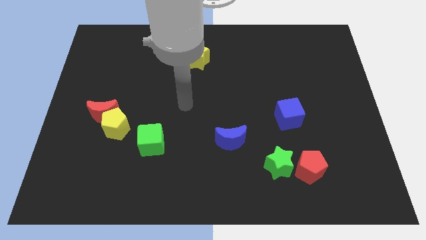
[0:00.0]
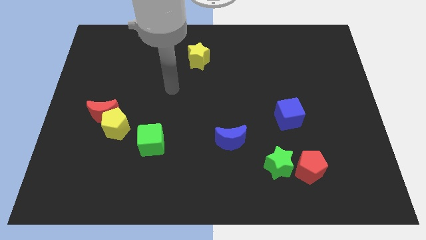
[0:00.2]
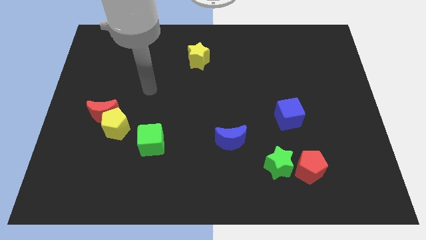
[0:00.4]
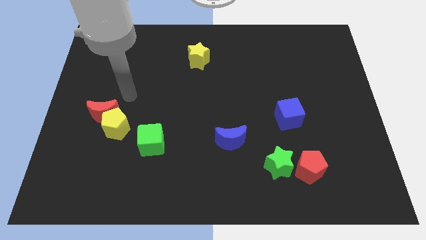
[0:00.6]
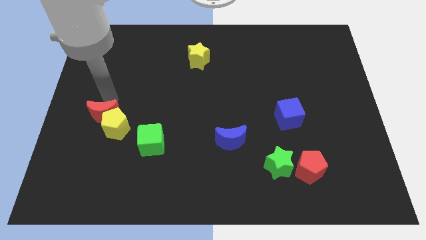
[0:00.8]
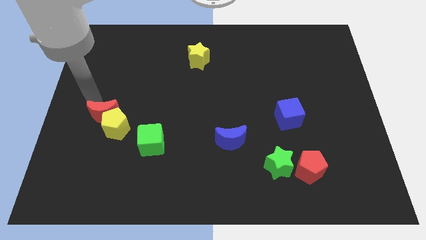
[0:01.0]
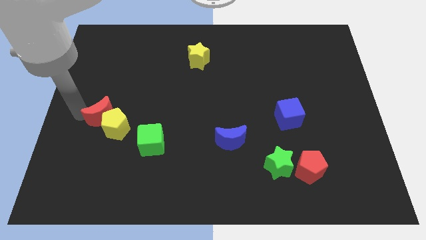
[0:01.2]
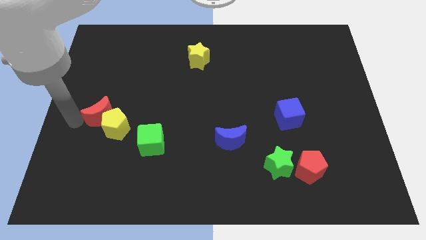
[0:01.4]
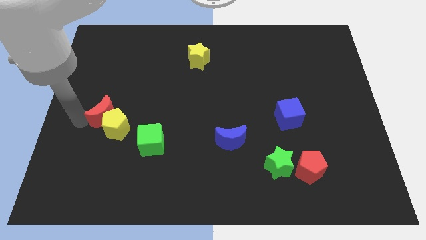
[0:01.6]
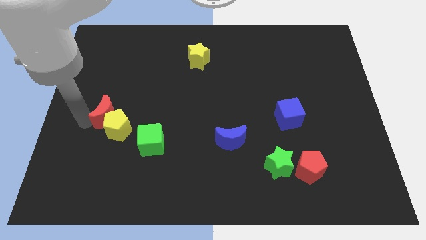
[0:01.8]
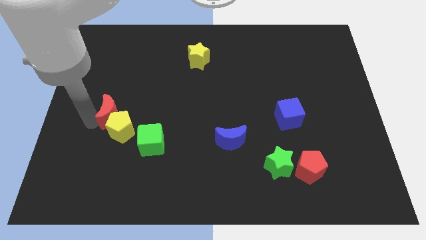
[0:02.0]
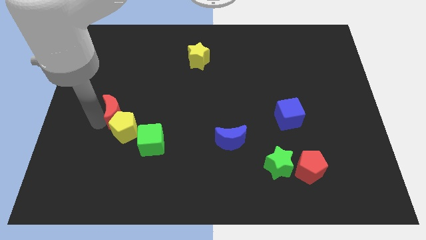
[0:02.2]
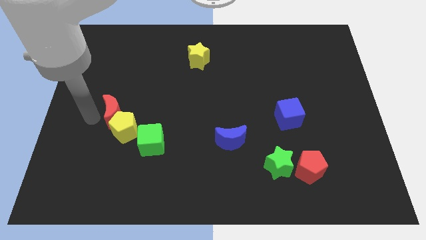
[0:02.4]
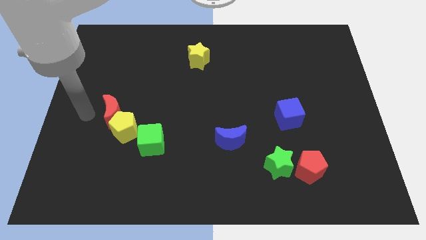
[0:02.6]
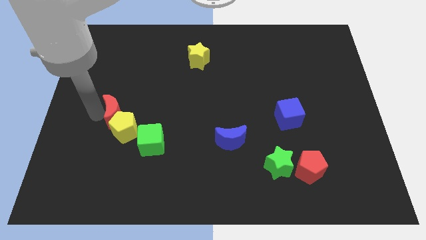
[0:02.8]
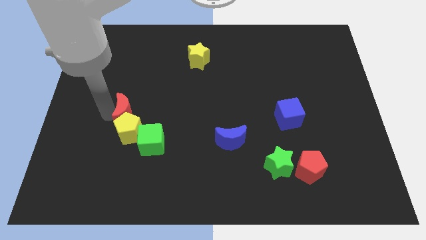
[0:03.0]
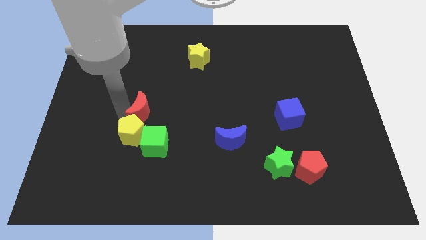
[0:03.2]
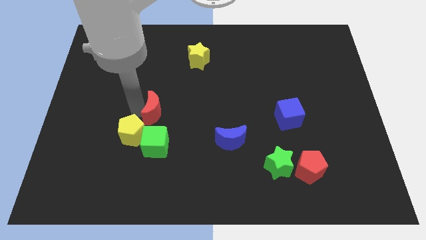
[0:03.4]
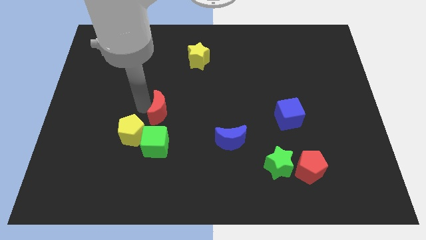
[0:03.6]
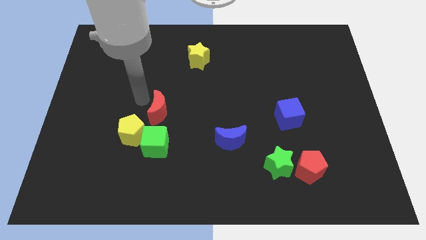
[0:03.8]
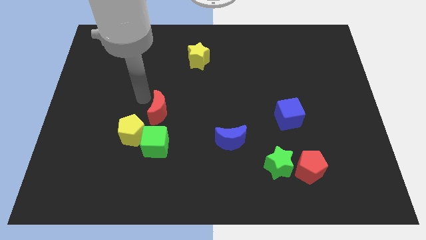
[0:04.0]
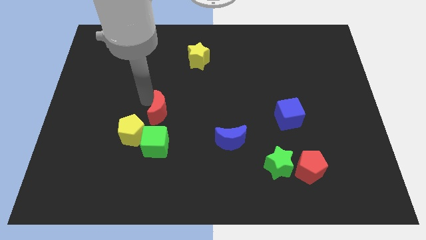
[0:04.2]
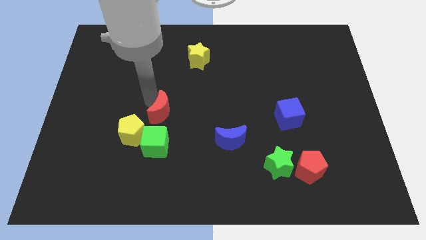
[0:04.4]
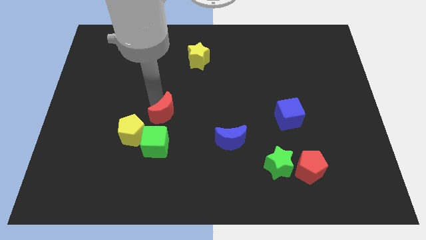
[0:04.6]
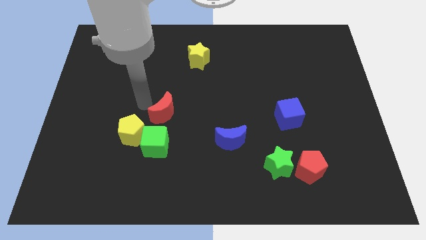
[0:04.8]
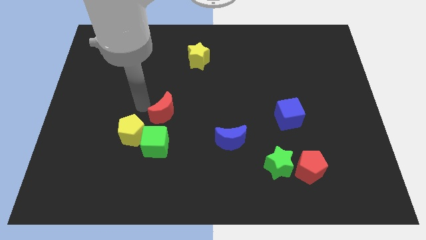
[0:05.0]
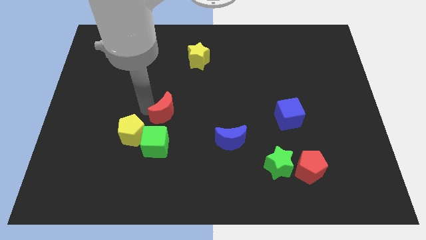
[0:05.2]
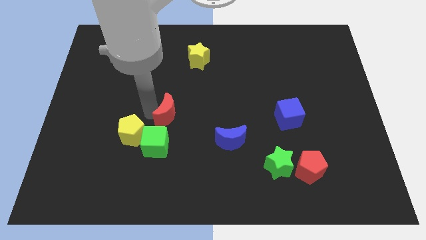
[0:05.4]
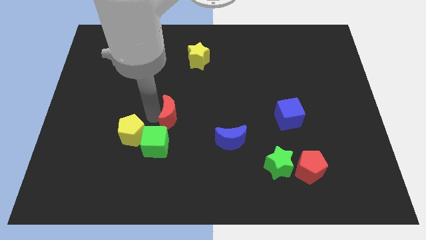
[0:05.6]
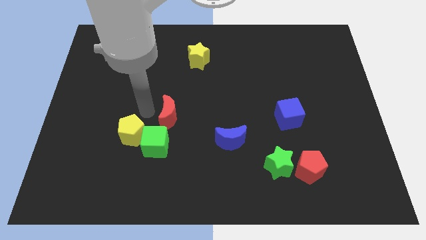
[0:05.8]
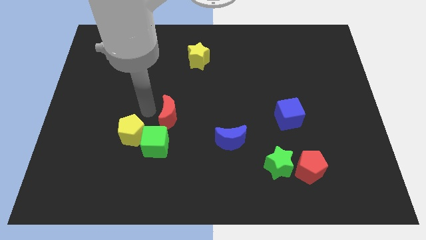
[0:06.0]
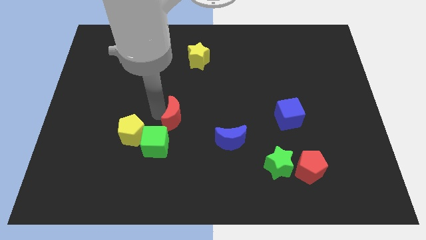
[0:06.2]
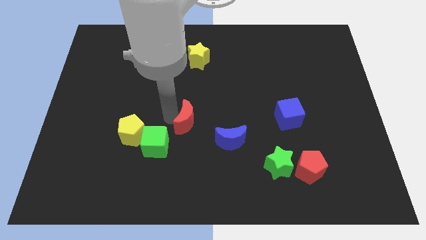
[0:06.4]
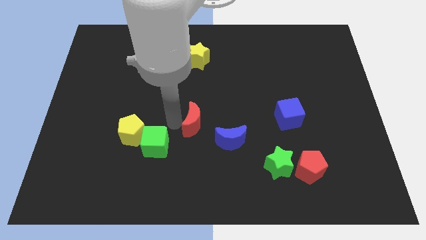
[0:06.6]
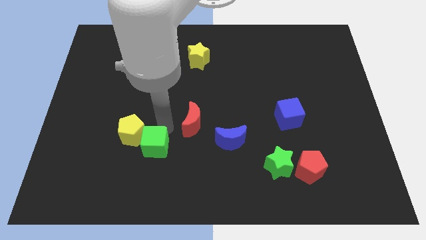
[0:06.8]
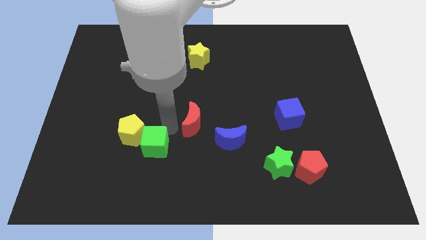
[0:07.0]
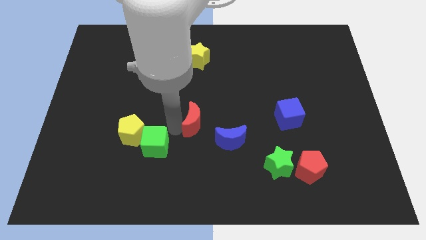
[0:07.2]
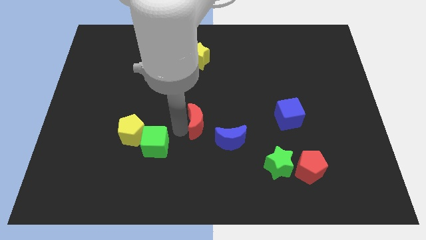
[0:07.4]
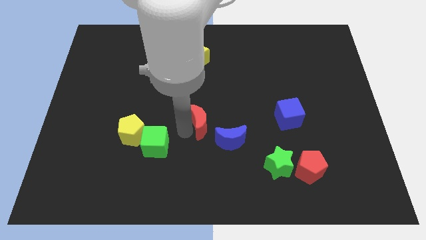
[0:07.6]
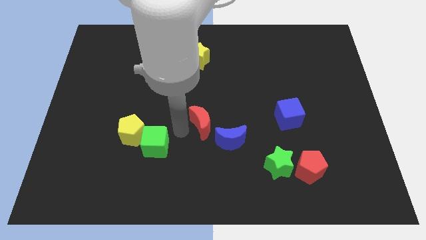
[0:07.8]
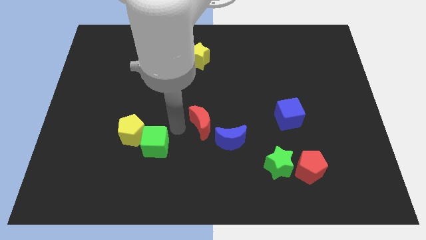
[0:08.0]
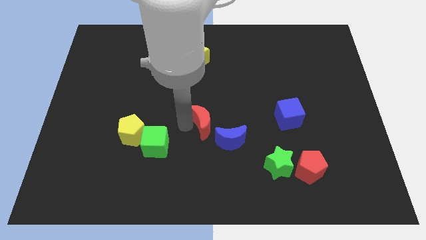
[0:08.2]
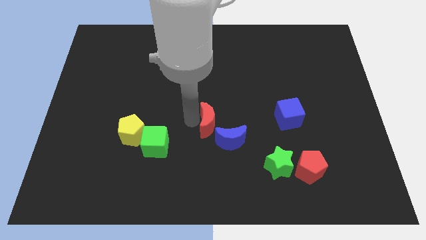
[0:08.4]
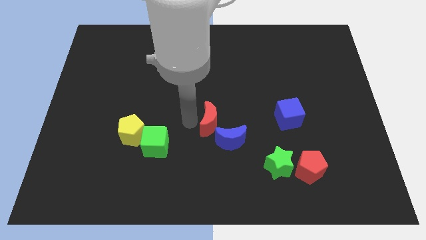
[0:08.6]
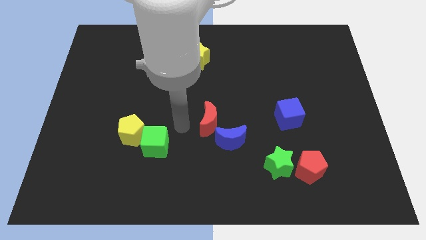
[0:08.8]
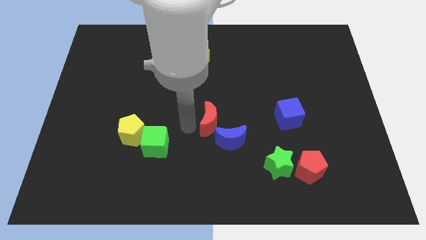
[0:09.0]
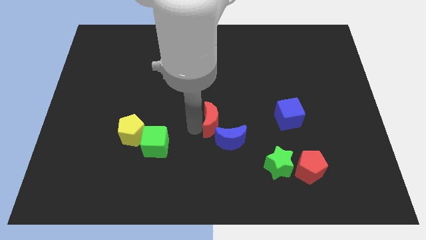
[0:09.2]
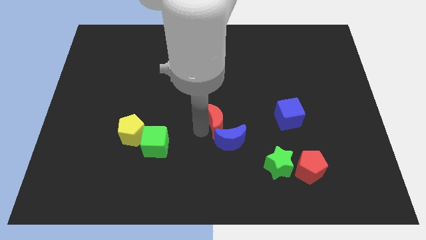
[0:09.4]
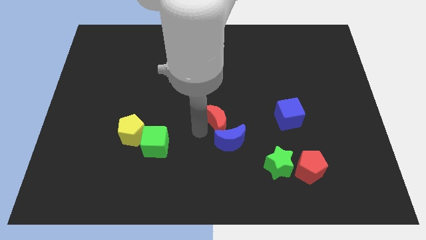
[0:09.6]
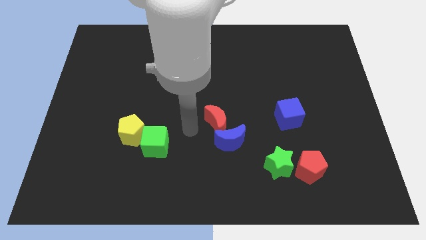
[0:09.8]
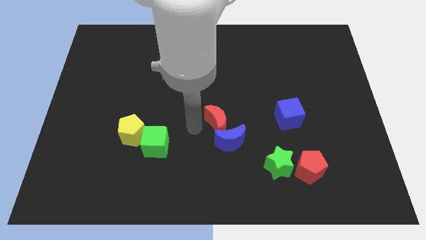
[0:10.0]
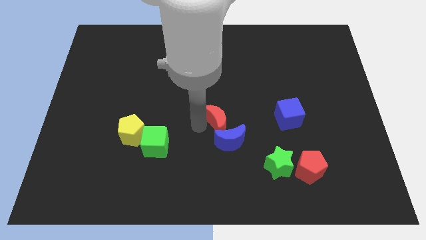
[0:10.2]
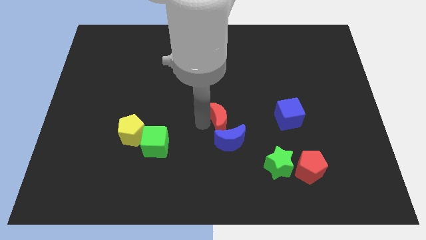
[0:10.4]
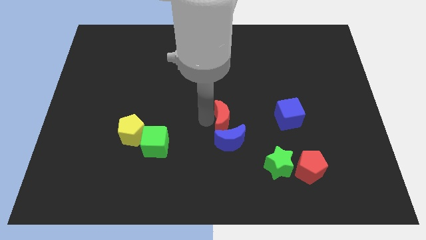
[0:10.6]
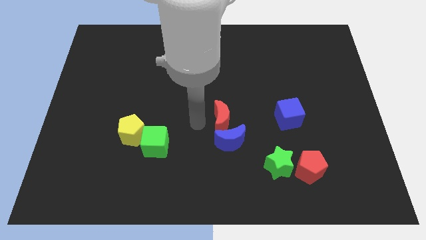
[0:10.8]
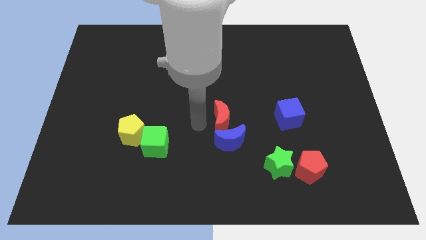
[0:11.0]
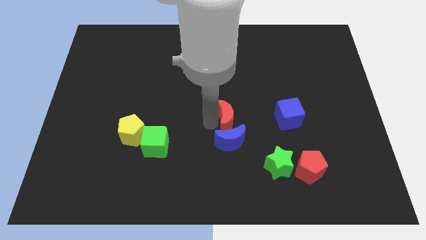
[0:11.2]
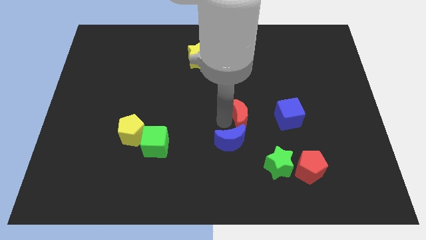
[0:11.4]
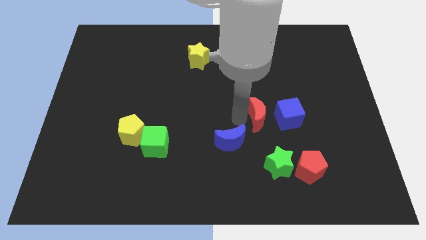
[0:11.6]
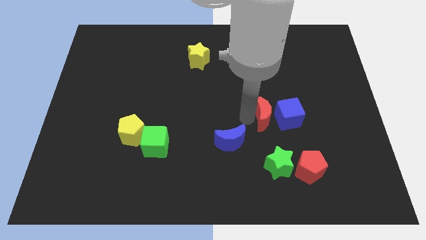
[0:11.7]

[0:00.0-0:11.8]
slide the red moon next to the blue cube

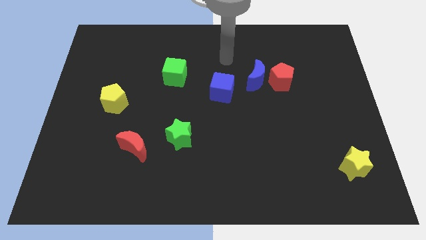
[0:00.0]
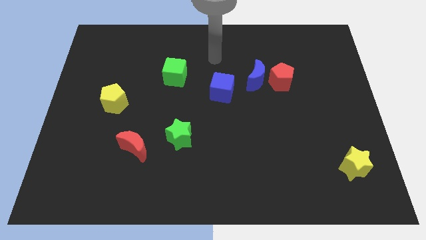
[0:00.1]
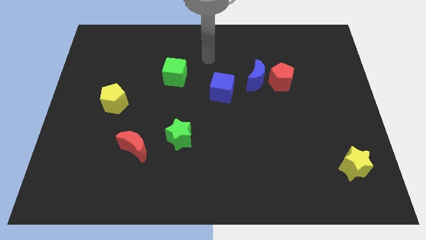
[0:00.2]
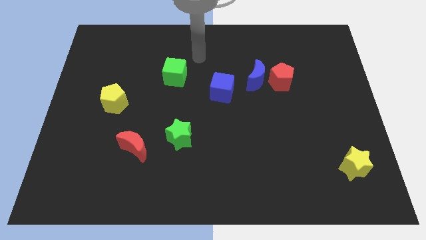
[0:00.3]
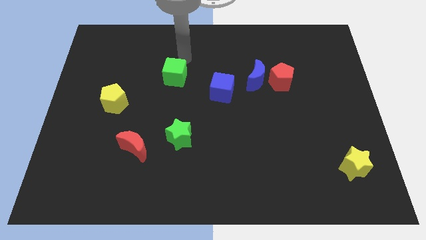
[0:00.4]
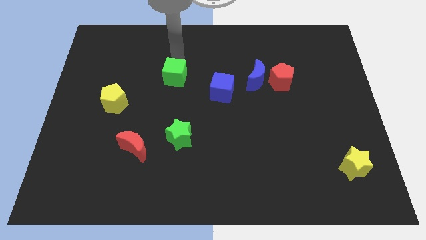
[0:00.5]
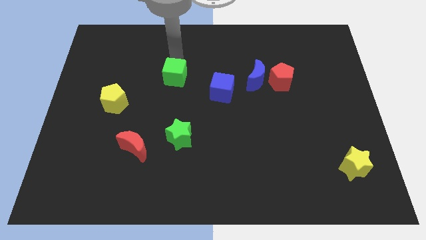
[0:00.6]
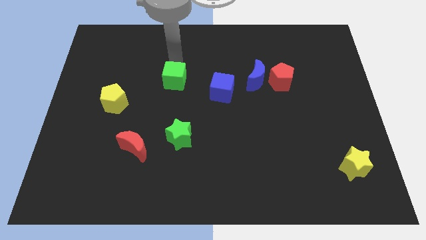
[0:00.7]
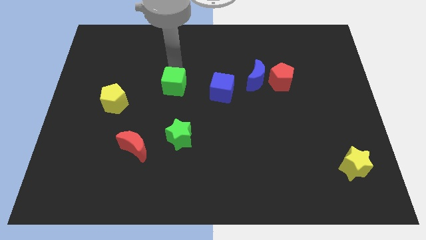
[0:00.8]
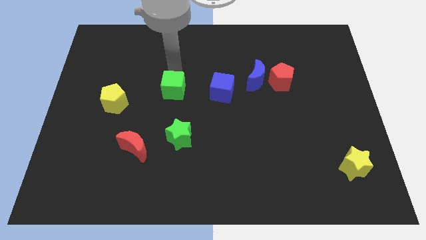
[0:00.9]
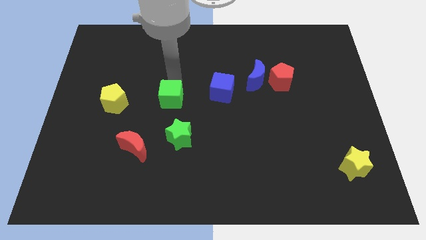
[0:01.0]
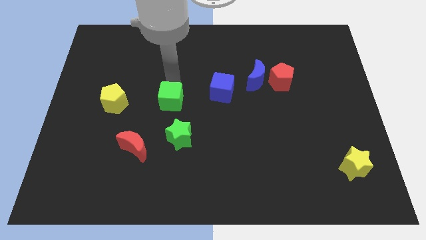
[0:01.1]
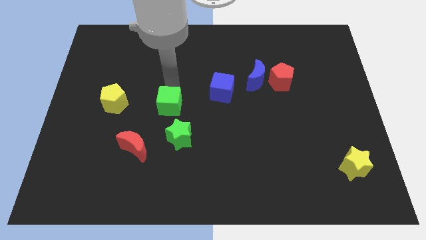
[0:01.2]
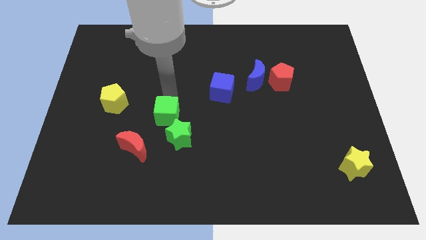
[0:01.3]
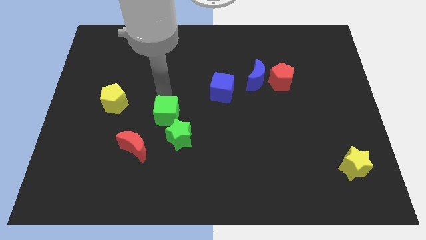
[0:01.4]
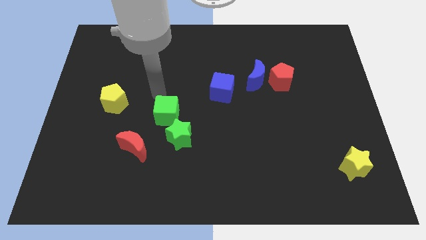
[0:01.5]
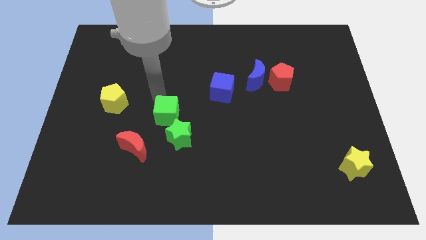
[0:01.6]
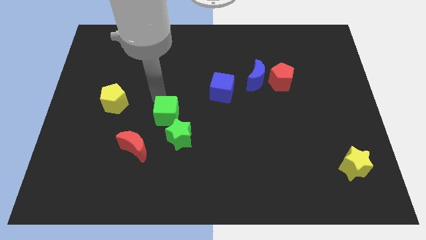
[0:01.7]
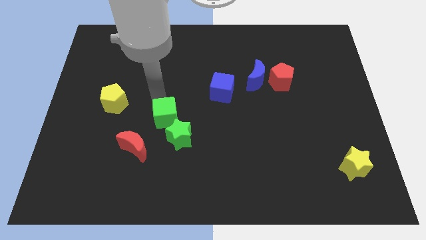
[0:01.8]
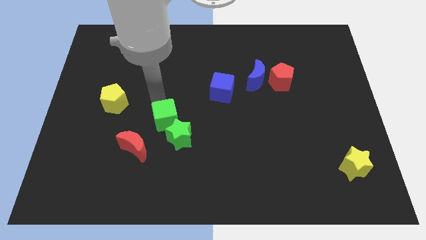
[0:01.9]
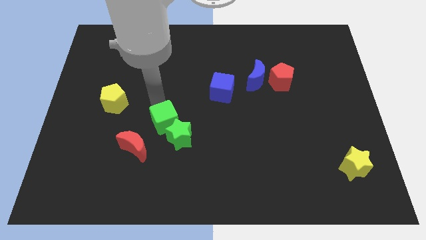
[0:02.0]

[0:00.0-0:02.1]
slide the green cube towards the green star
